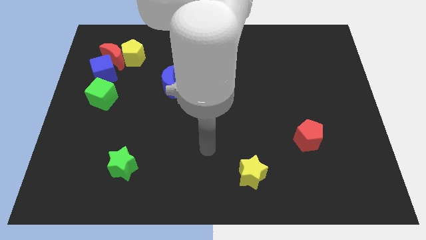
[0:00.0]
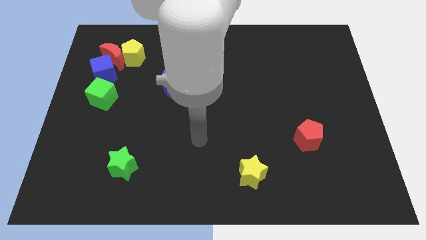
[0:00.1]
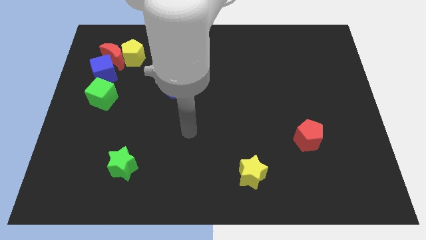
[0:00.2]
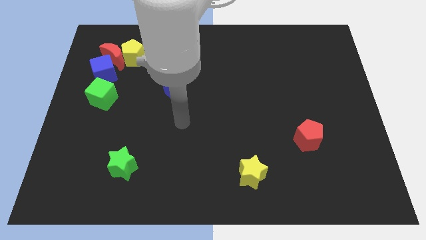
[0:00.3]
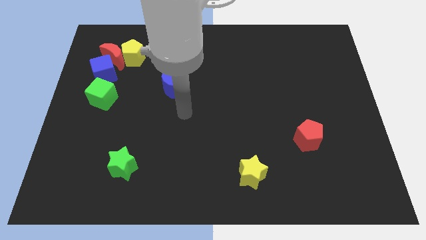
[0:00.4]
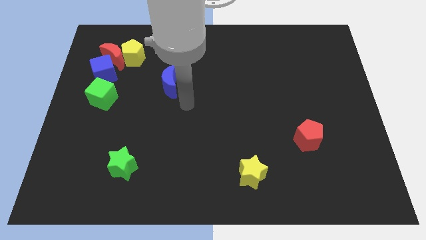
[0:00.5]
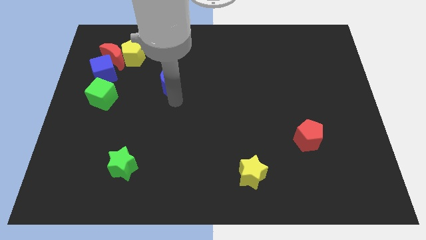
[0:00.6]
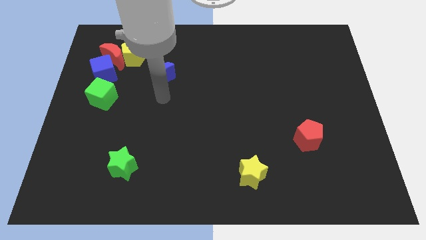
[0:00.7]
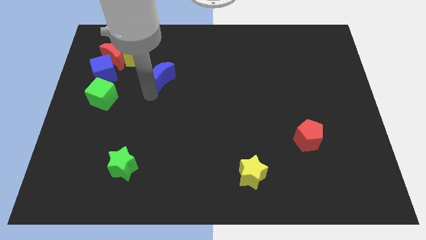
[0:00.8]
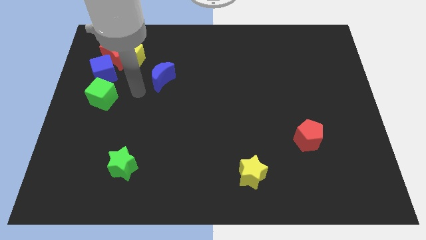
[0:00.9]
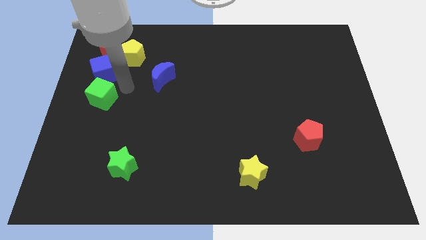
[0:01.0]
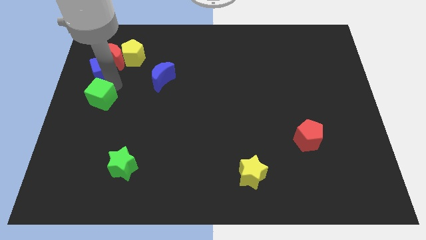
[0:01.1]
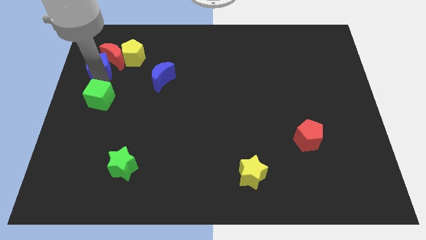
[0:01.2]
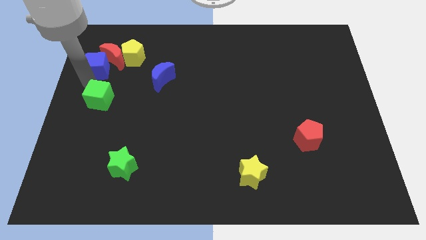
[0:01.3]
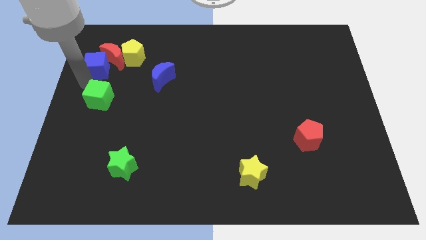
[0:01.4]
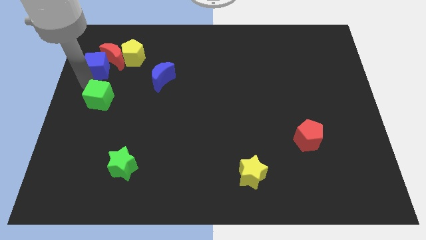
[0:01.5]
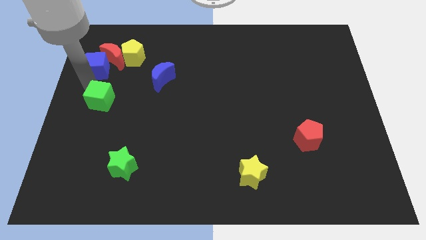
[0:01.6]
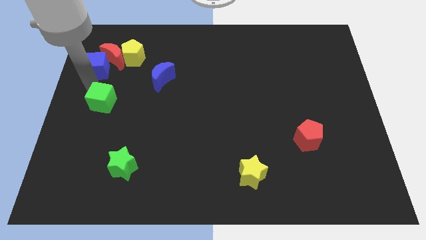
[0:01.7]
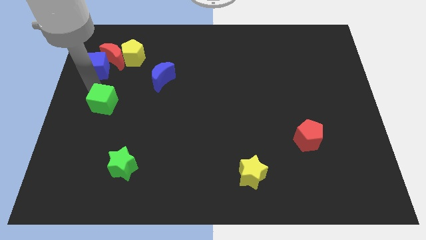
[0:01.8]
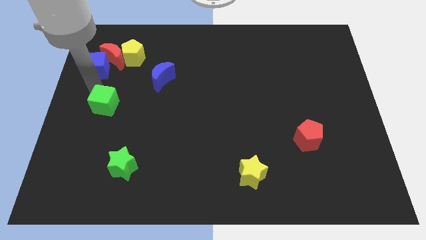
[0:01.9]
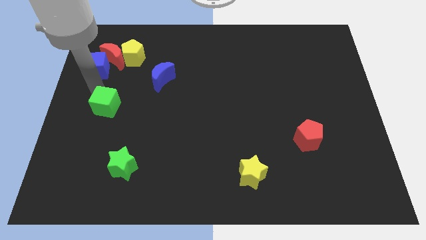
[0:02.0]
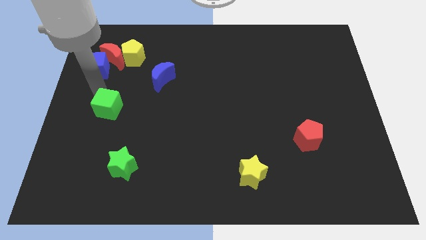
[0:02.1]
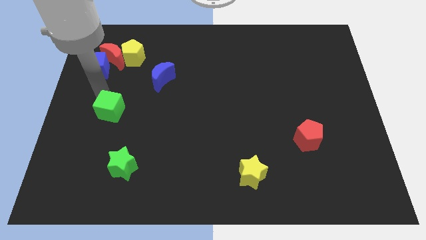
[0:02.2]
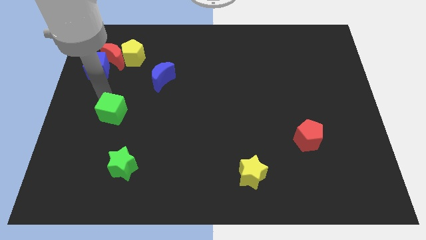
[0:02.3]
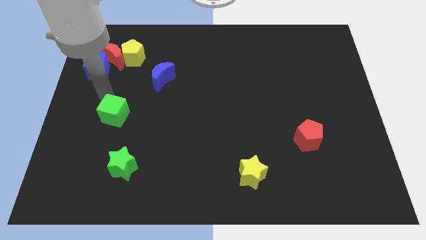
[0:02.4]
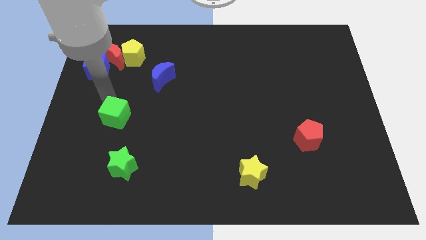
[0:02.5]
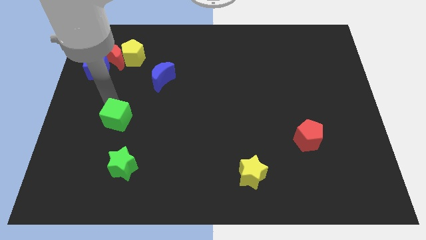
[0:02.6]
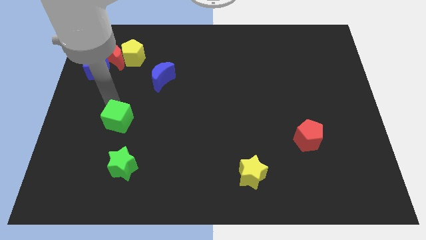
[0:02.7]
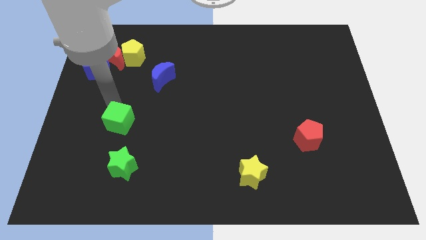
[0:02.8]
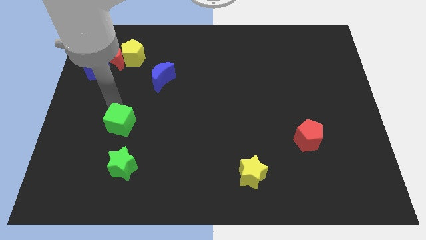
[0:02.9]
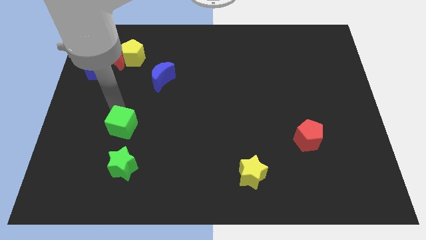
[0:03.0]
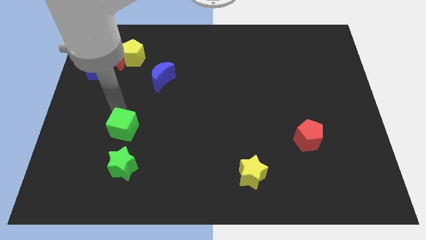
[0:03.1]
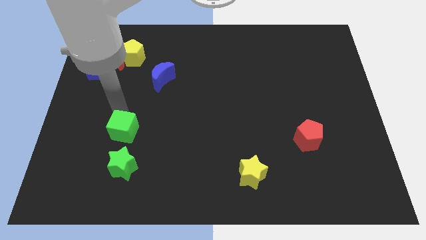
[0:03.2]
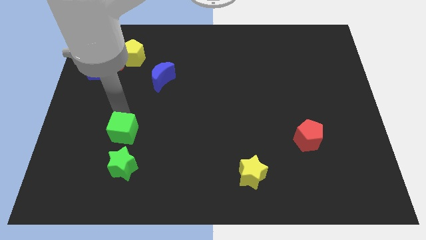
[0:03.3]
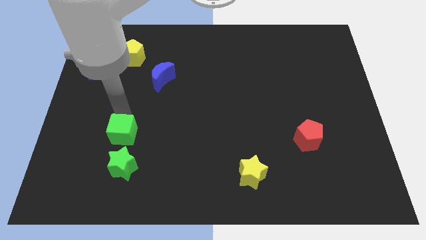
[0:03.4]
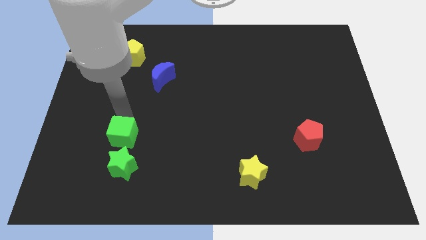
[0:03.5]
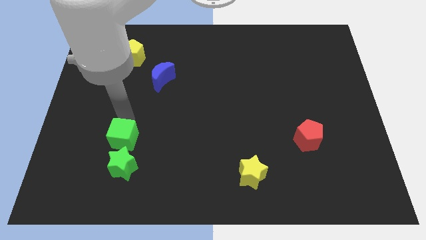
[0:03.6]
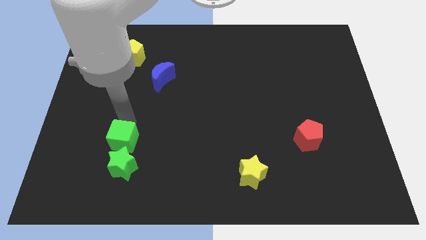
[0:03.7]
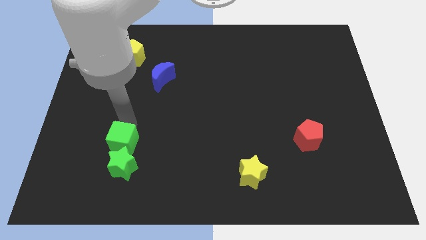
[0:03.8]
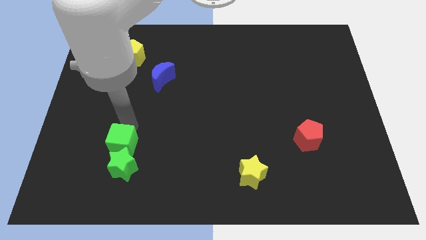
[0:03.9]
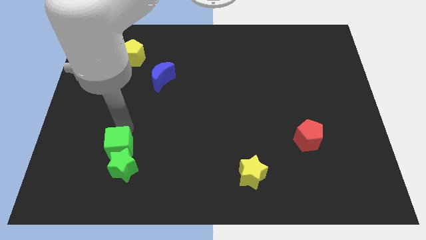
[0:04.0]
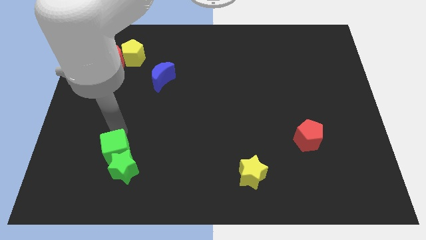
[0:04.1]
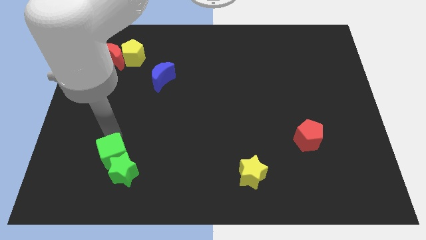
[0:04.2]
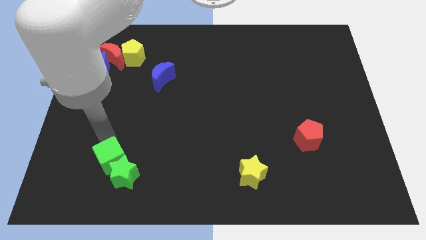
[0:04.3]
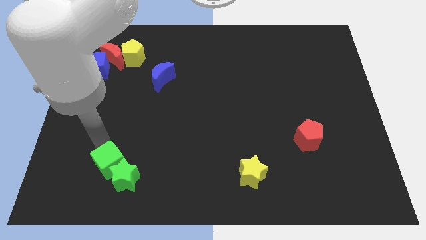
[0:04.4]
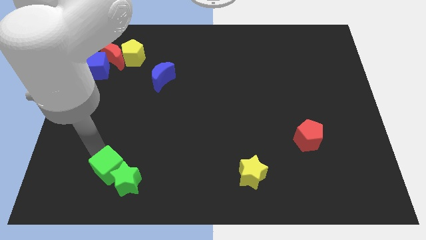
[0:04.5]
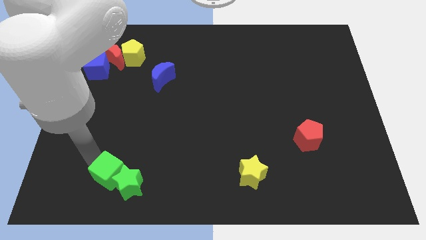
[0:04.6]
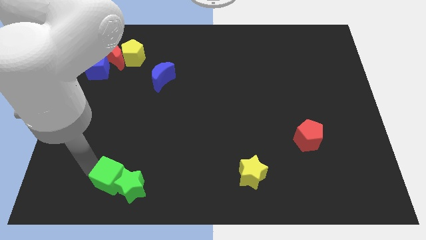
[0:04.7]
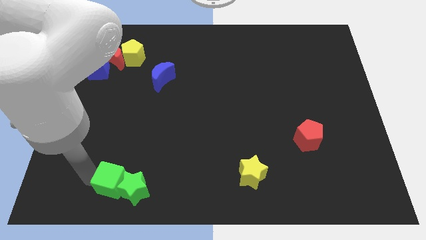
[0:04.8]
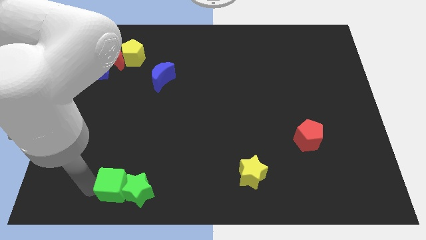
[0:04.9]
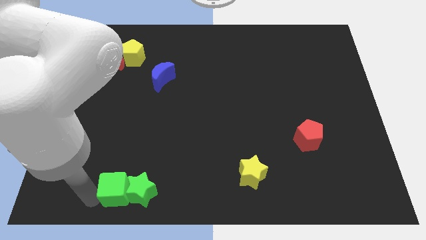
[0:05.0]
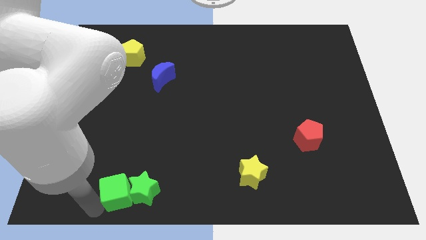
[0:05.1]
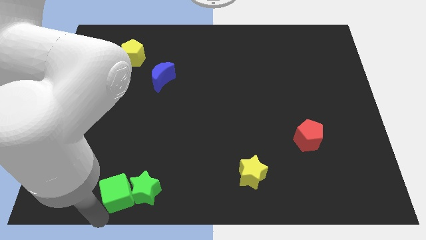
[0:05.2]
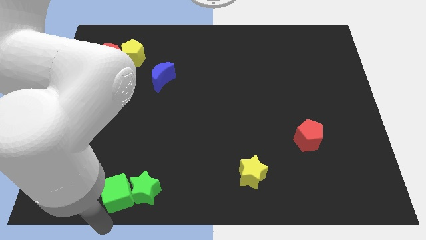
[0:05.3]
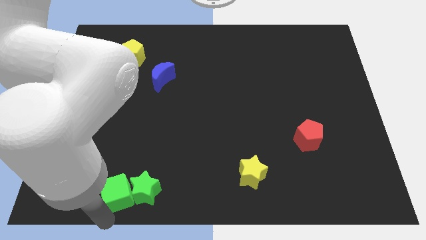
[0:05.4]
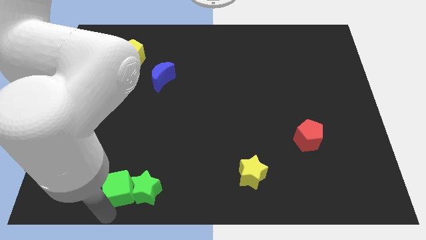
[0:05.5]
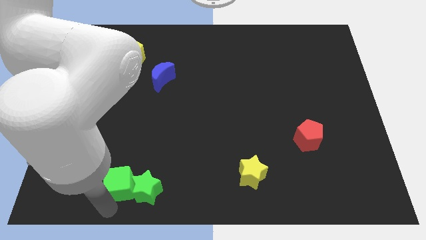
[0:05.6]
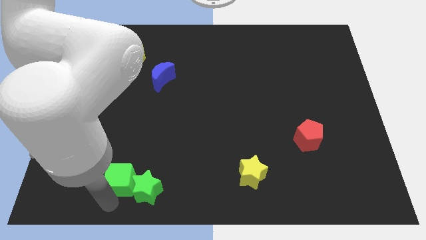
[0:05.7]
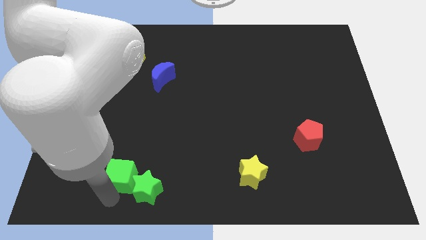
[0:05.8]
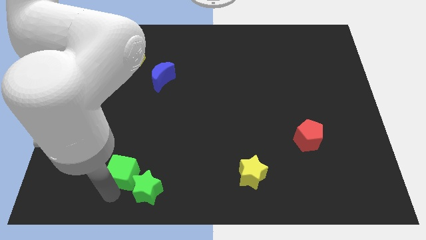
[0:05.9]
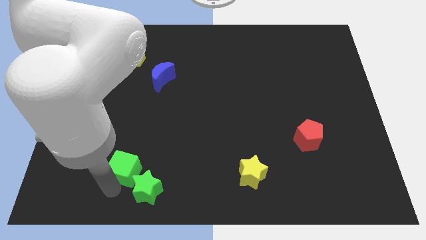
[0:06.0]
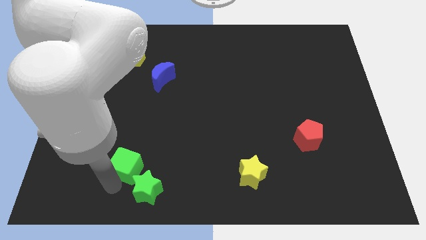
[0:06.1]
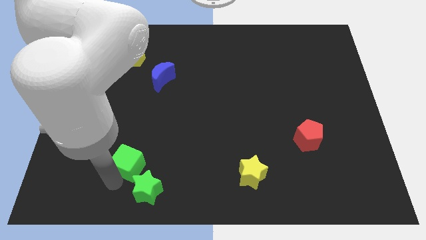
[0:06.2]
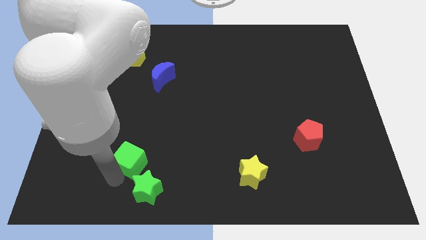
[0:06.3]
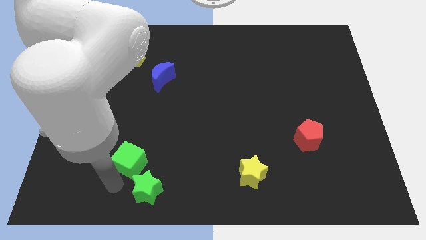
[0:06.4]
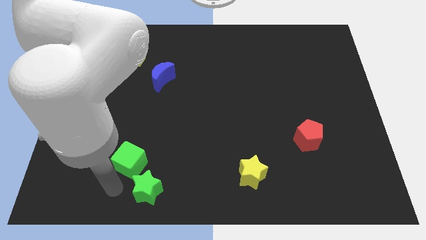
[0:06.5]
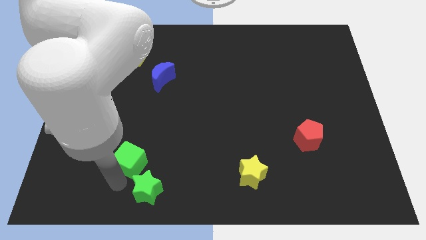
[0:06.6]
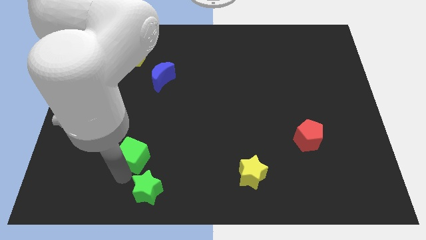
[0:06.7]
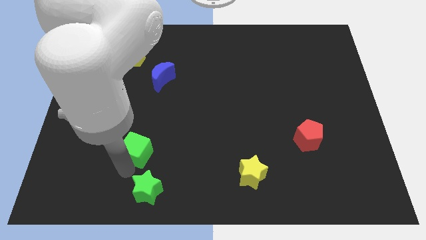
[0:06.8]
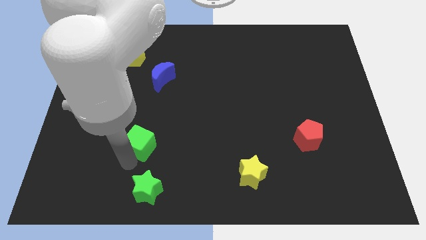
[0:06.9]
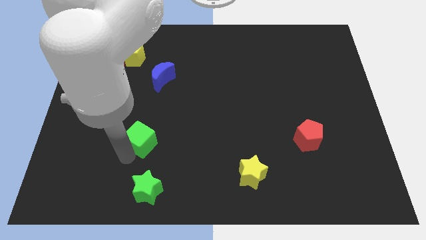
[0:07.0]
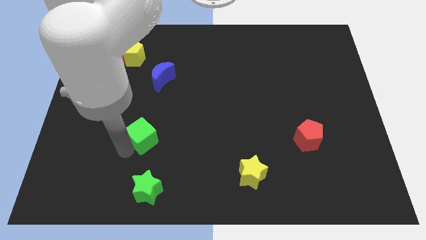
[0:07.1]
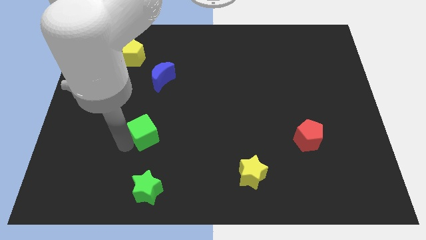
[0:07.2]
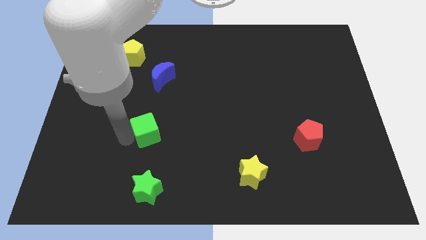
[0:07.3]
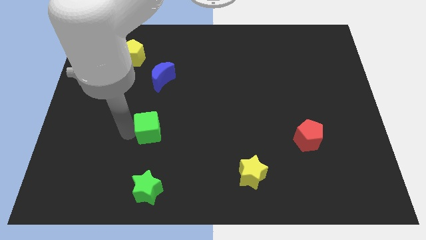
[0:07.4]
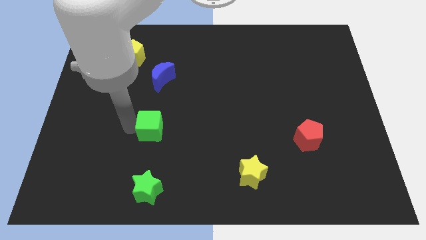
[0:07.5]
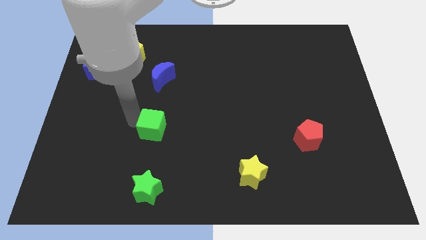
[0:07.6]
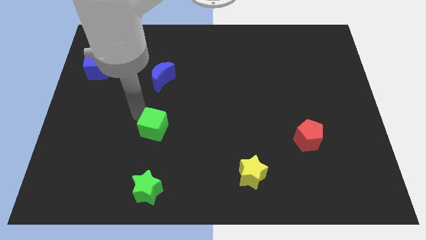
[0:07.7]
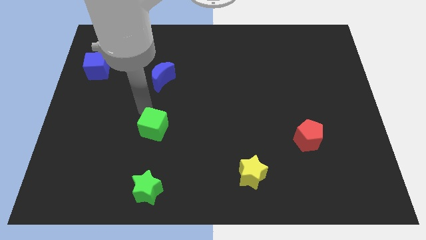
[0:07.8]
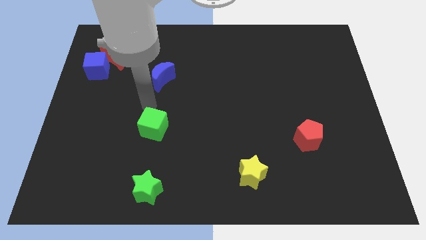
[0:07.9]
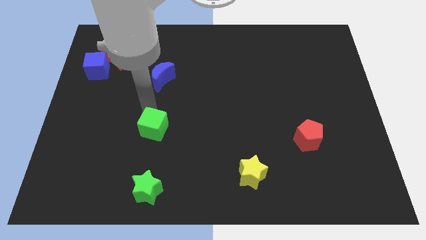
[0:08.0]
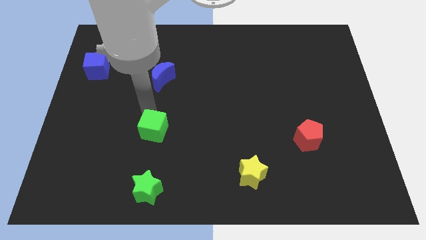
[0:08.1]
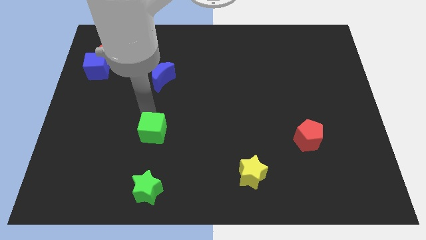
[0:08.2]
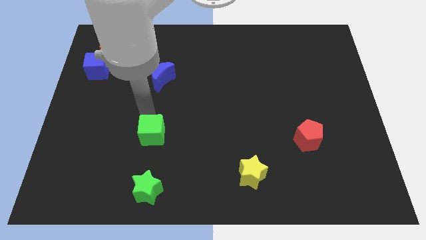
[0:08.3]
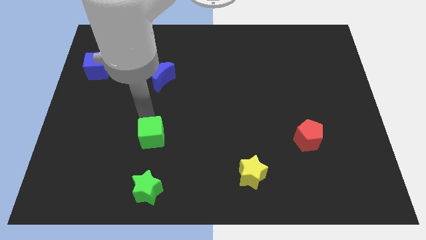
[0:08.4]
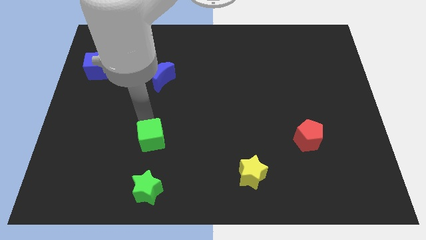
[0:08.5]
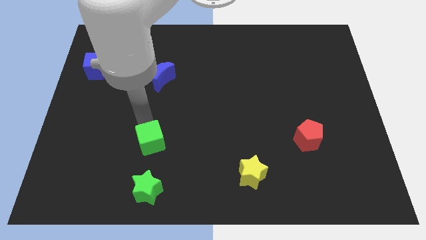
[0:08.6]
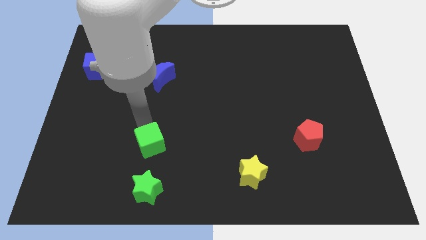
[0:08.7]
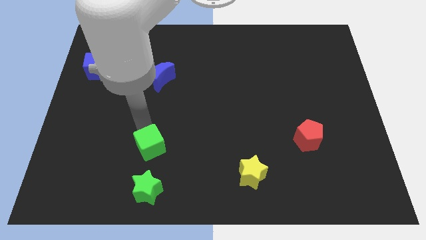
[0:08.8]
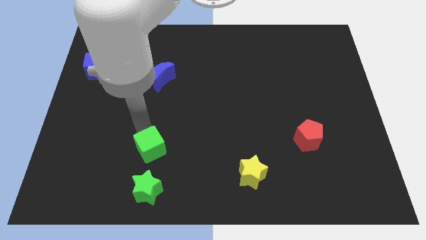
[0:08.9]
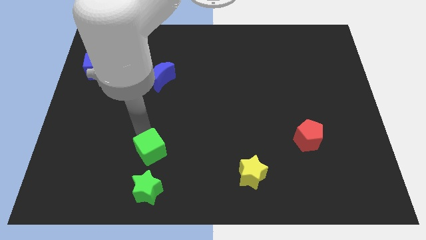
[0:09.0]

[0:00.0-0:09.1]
slide the green cube downwards and to the right diagonally
